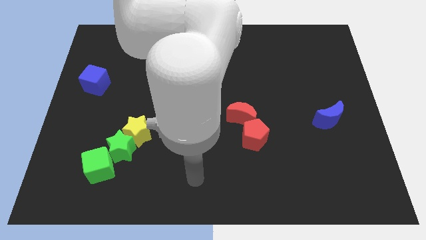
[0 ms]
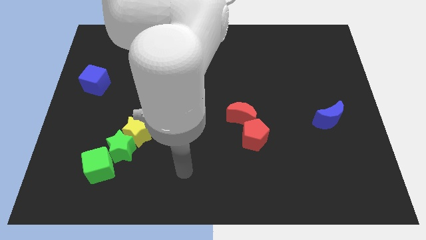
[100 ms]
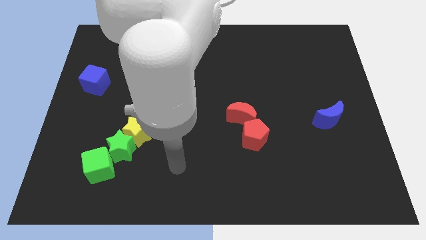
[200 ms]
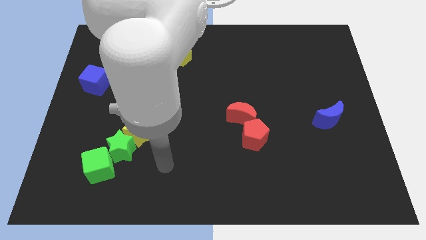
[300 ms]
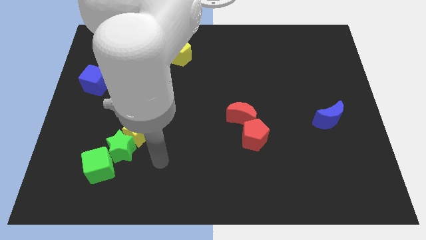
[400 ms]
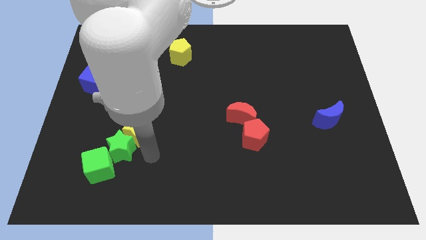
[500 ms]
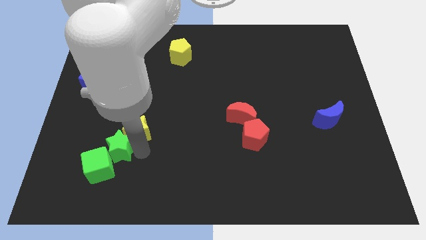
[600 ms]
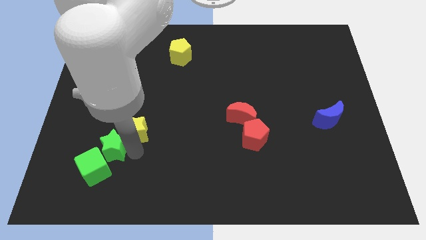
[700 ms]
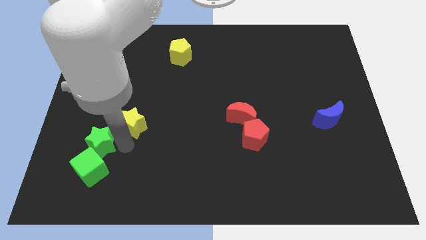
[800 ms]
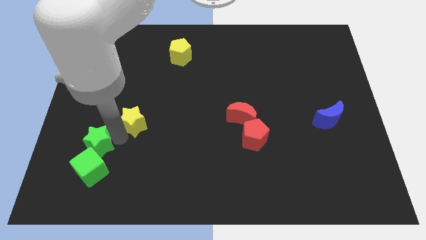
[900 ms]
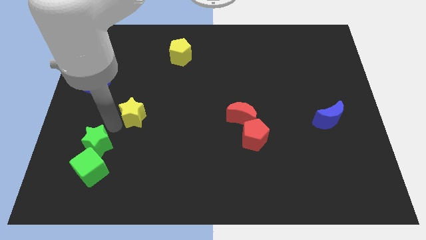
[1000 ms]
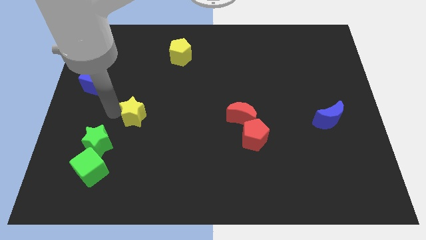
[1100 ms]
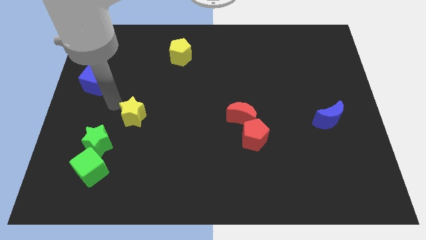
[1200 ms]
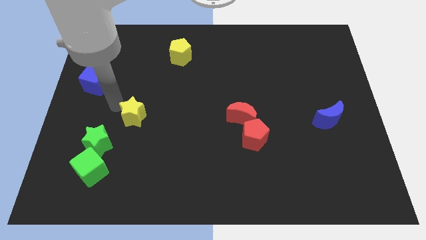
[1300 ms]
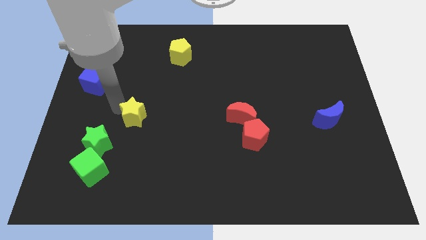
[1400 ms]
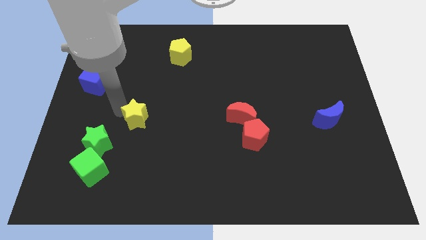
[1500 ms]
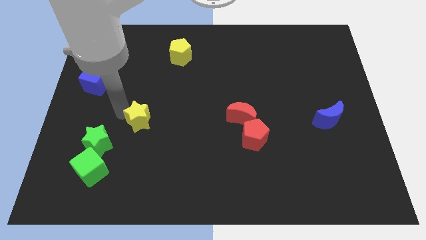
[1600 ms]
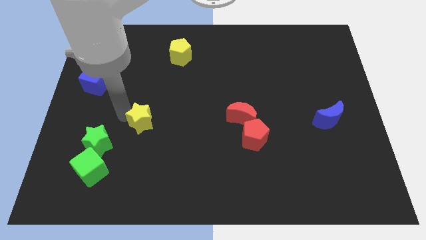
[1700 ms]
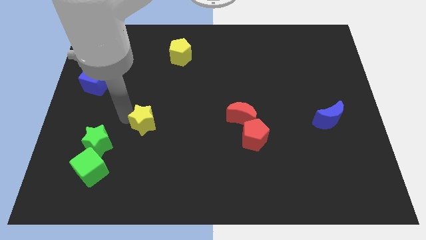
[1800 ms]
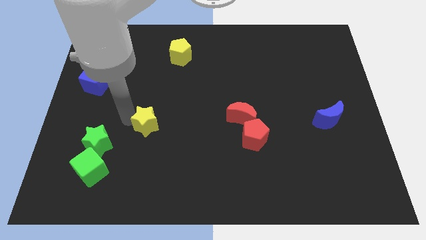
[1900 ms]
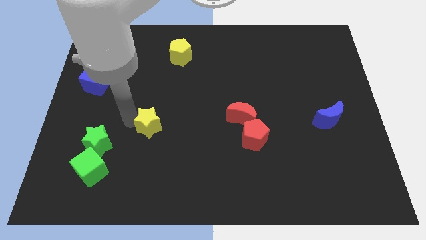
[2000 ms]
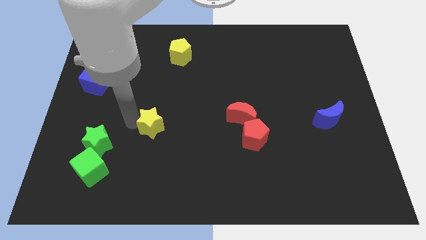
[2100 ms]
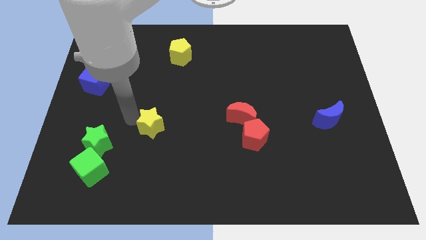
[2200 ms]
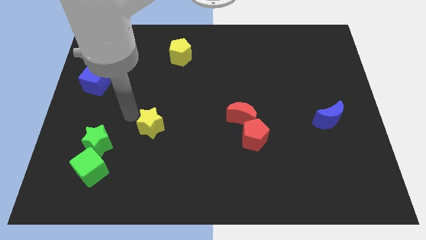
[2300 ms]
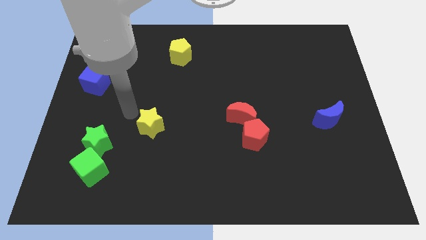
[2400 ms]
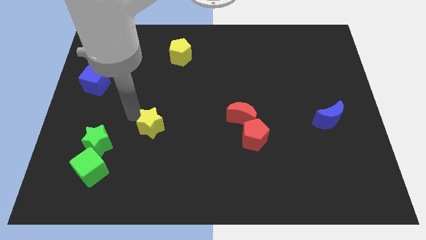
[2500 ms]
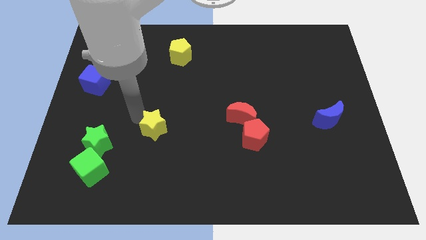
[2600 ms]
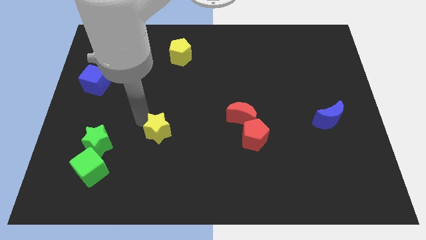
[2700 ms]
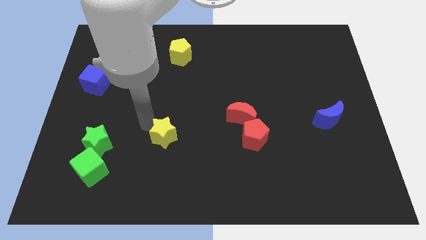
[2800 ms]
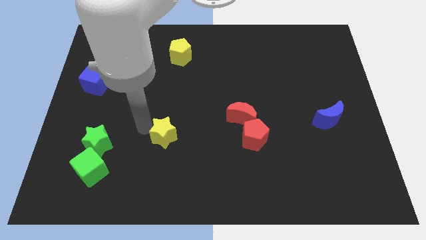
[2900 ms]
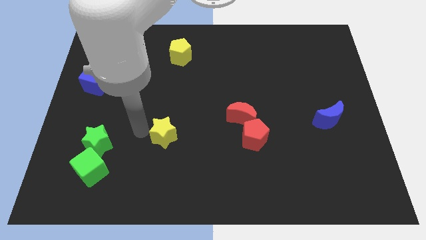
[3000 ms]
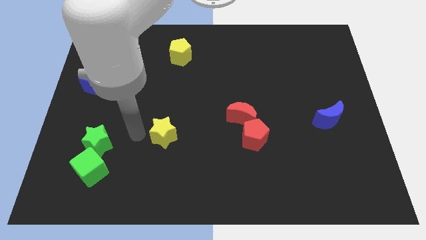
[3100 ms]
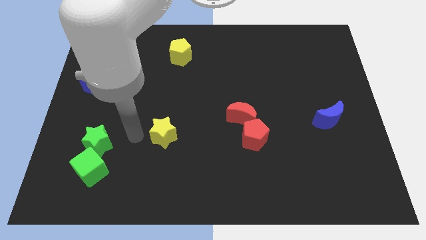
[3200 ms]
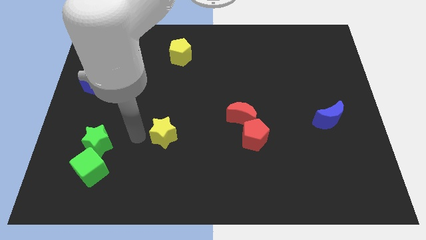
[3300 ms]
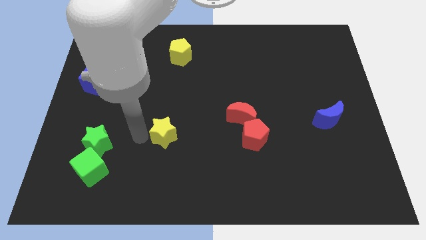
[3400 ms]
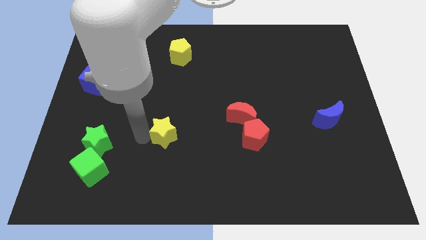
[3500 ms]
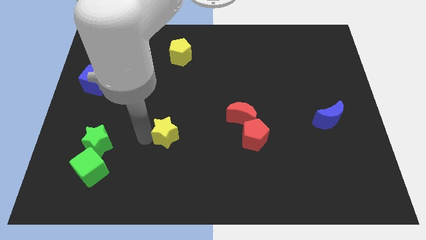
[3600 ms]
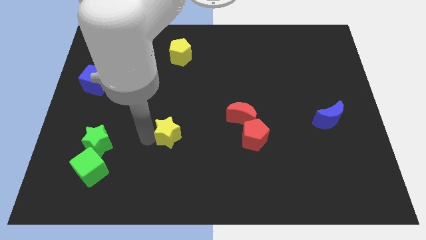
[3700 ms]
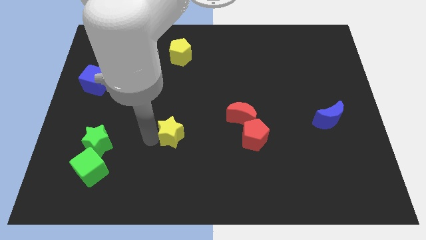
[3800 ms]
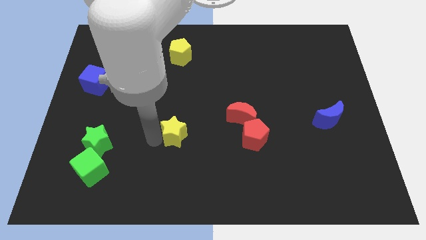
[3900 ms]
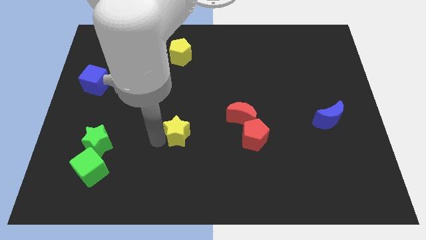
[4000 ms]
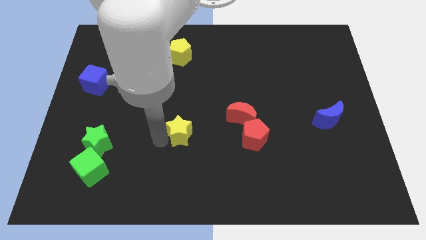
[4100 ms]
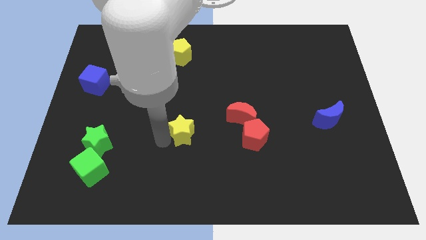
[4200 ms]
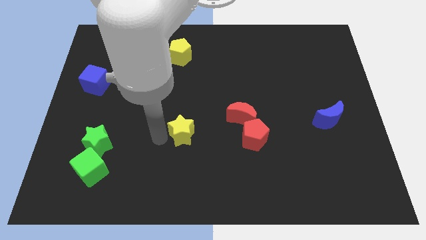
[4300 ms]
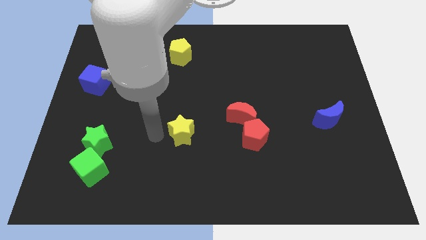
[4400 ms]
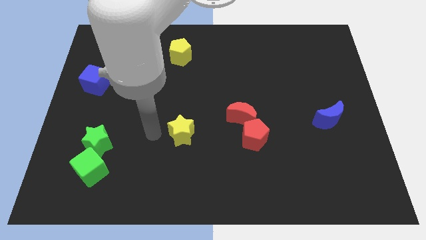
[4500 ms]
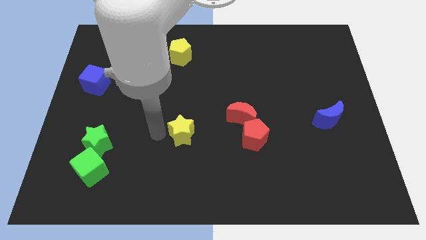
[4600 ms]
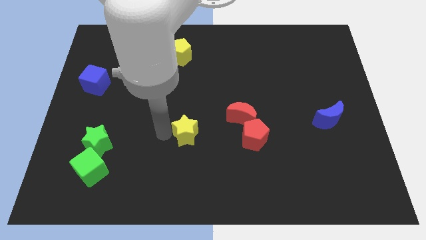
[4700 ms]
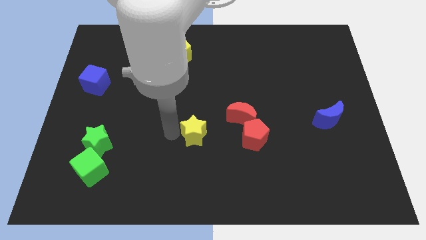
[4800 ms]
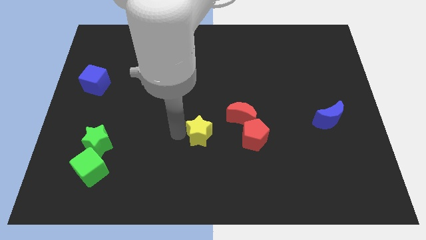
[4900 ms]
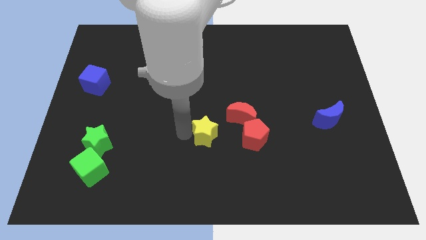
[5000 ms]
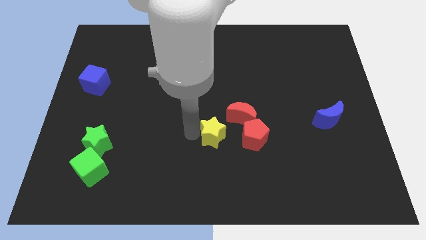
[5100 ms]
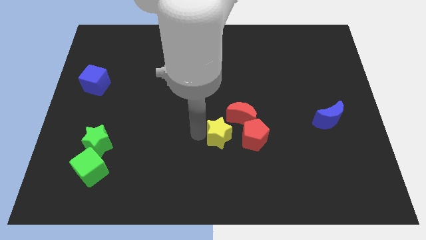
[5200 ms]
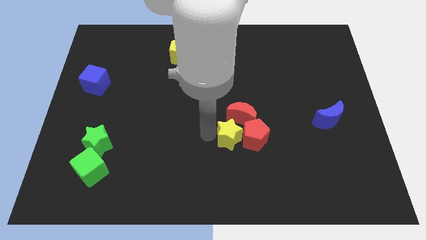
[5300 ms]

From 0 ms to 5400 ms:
push the yellow star close to the red pentagon

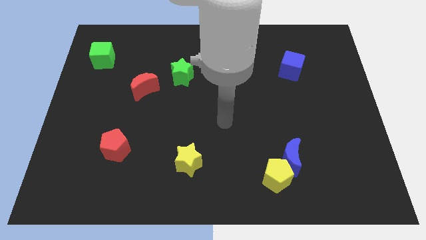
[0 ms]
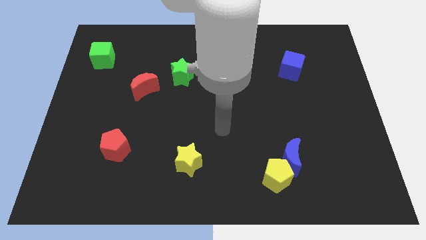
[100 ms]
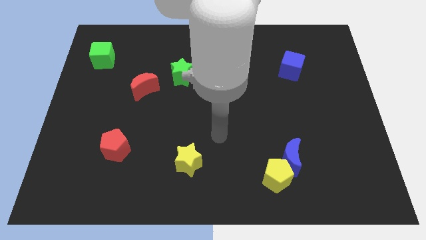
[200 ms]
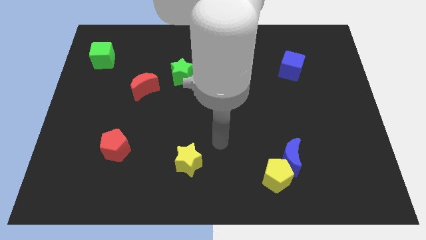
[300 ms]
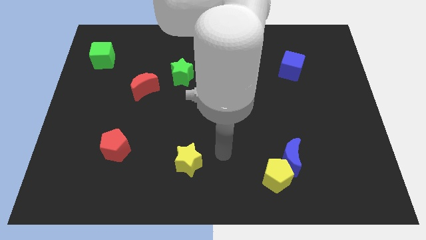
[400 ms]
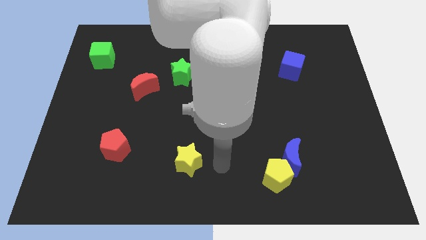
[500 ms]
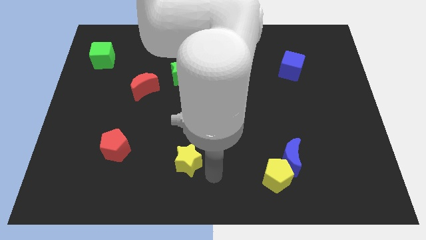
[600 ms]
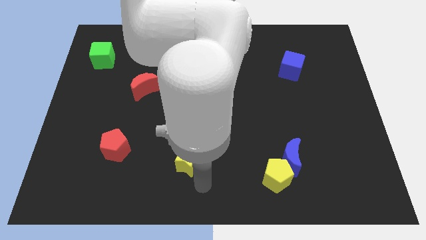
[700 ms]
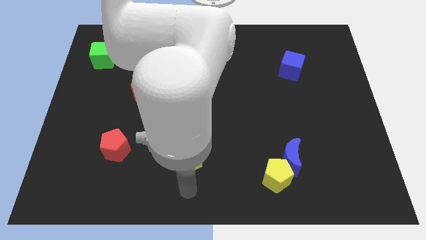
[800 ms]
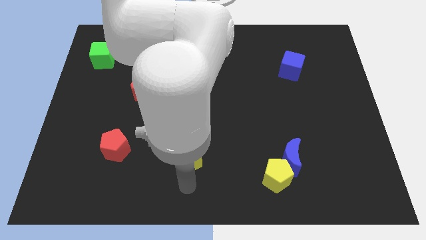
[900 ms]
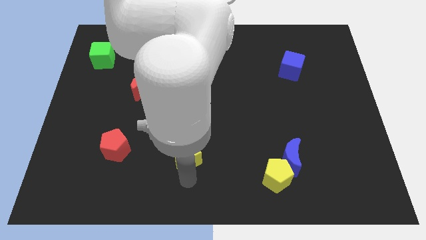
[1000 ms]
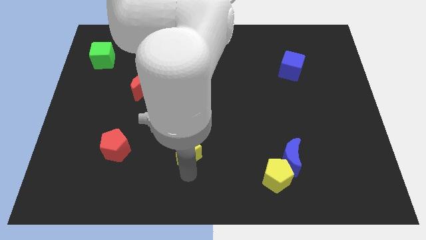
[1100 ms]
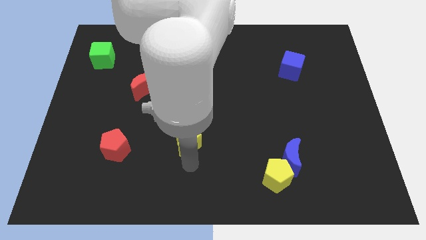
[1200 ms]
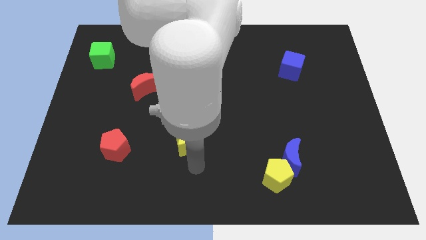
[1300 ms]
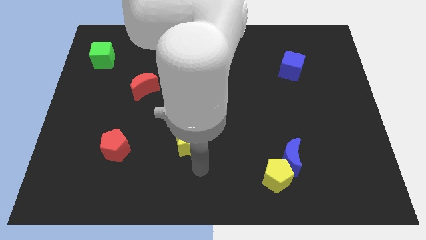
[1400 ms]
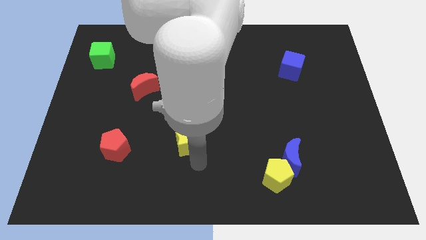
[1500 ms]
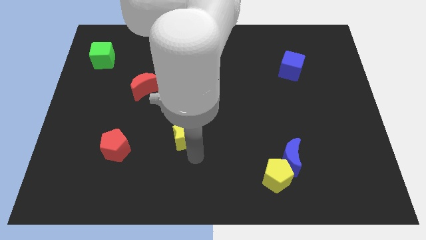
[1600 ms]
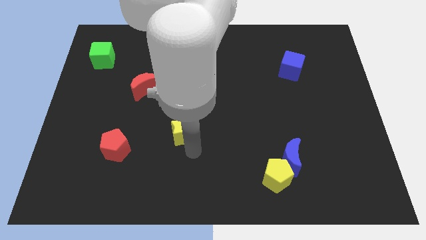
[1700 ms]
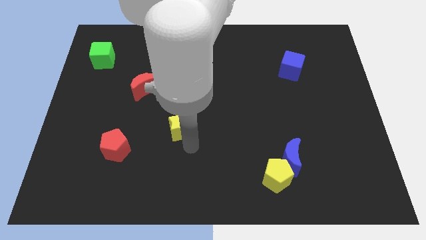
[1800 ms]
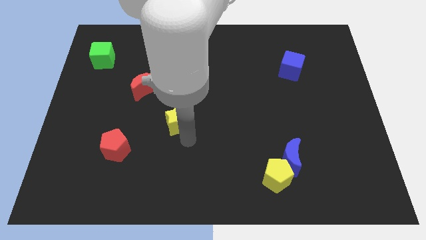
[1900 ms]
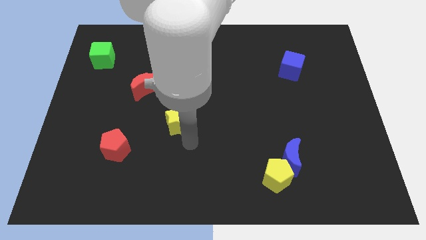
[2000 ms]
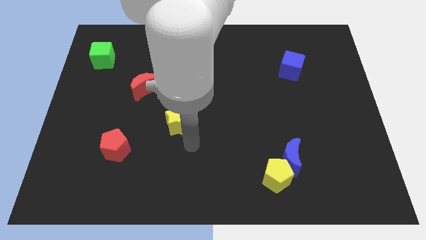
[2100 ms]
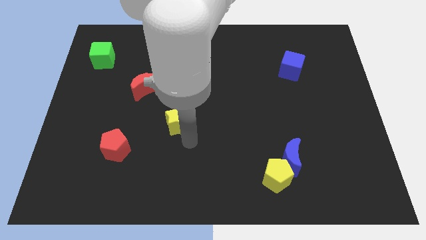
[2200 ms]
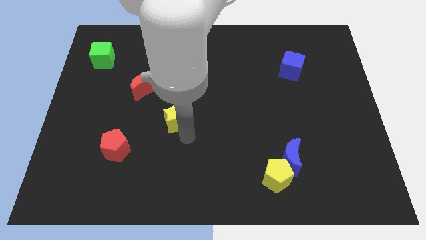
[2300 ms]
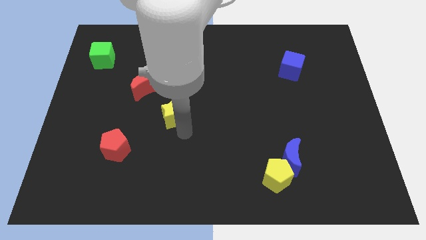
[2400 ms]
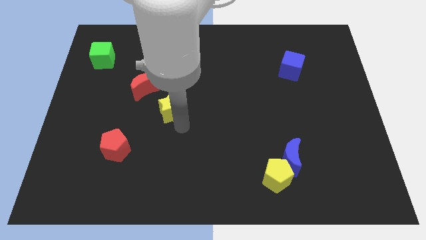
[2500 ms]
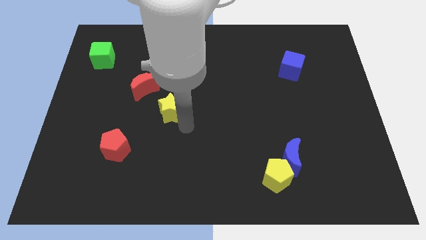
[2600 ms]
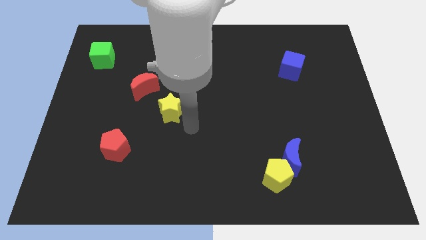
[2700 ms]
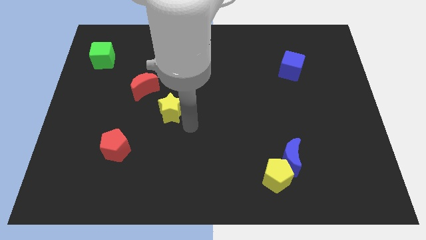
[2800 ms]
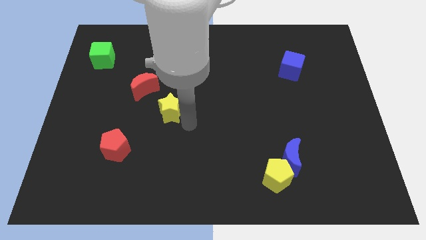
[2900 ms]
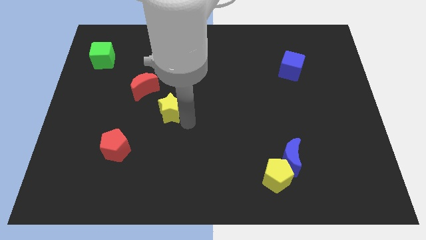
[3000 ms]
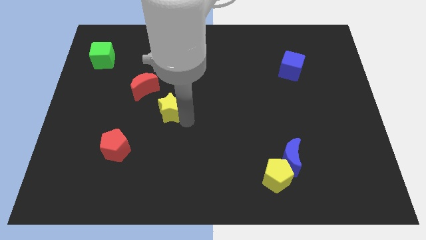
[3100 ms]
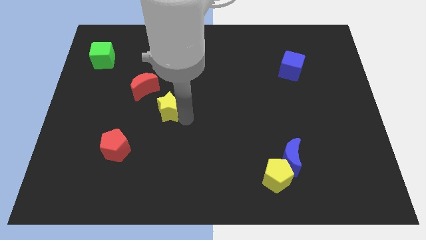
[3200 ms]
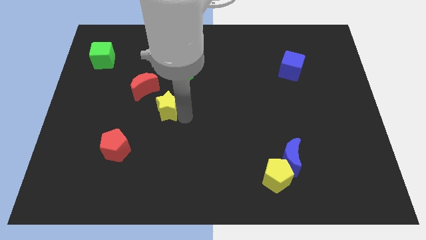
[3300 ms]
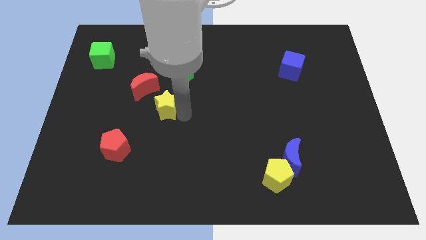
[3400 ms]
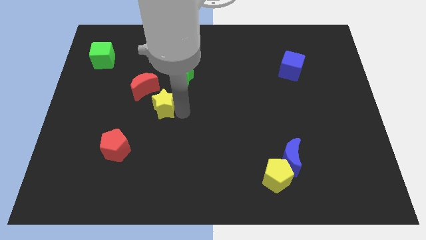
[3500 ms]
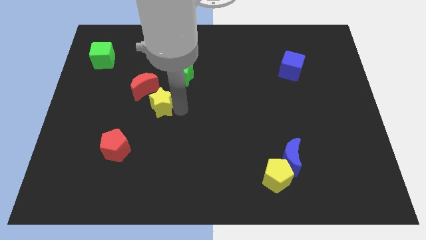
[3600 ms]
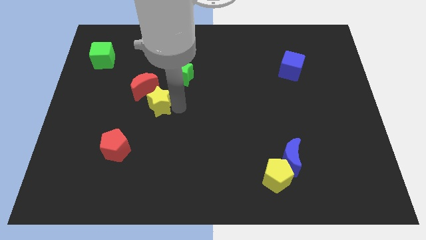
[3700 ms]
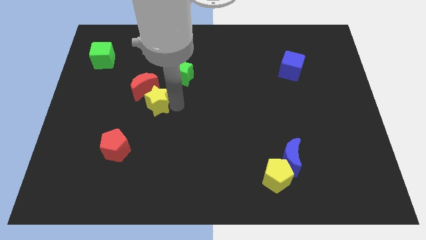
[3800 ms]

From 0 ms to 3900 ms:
push the yellow star close to the red moon
